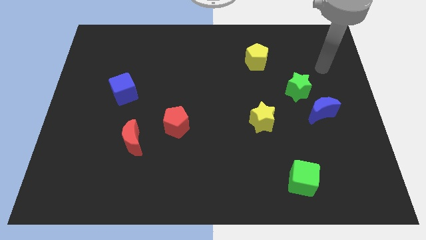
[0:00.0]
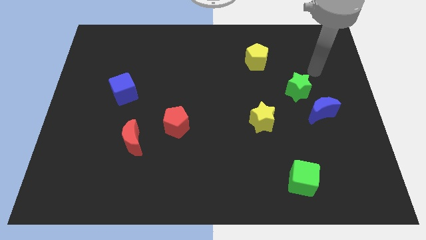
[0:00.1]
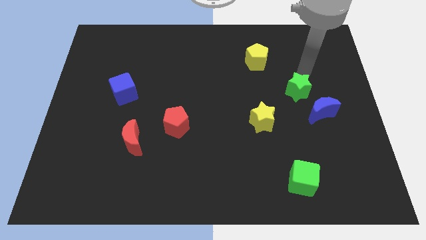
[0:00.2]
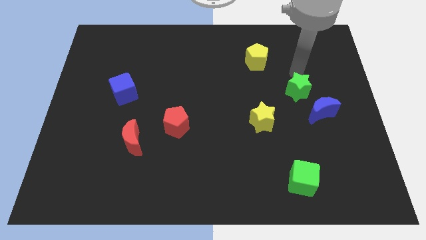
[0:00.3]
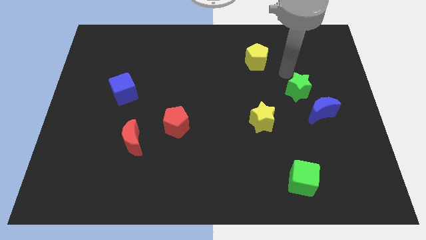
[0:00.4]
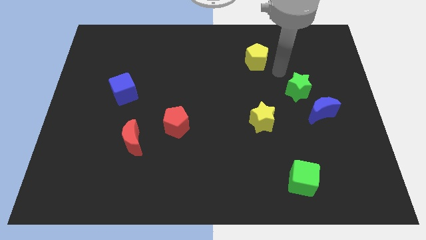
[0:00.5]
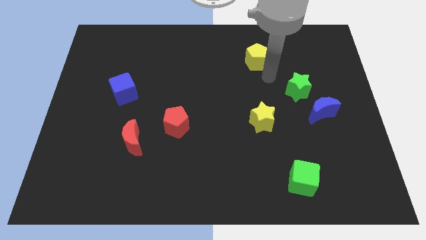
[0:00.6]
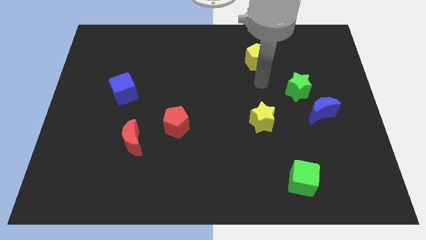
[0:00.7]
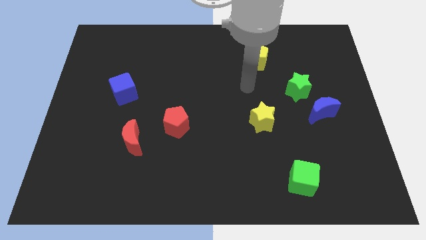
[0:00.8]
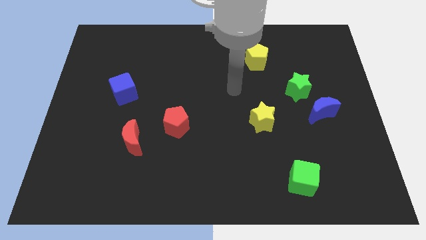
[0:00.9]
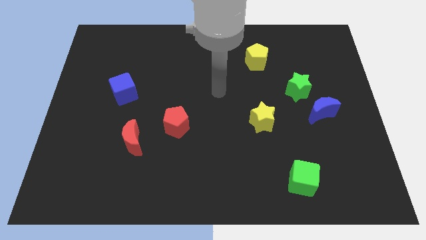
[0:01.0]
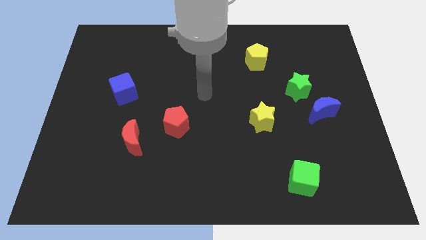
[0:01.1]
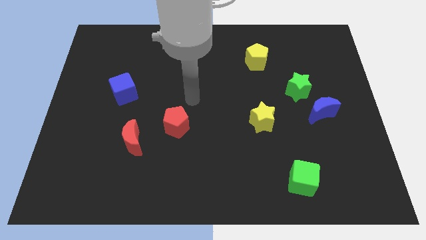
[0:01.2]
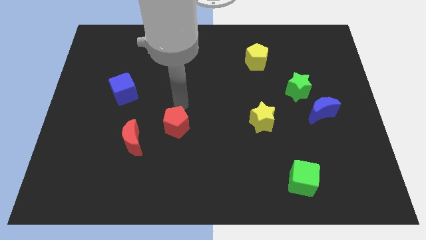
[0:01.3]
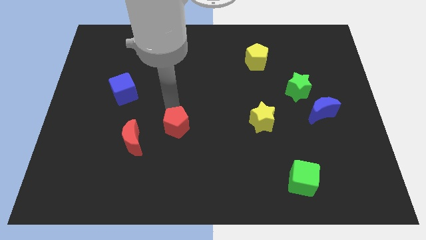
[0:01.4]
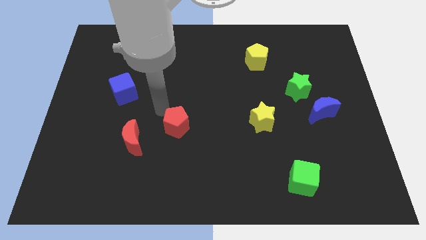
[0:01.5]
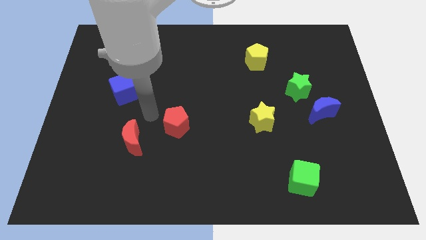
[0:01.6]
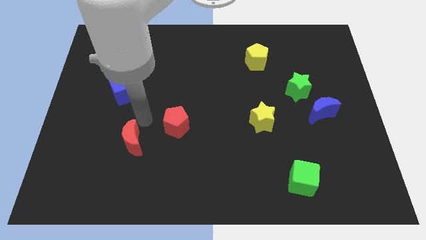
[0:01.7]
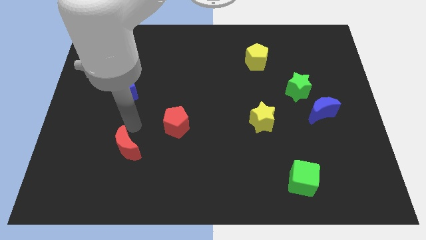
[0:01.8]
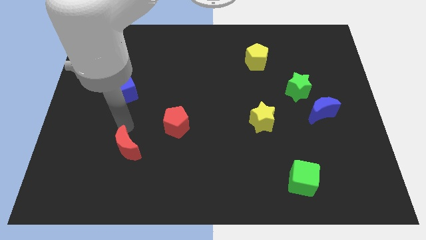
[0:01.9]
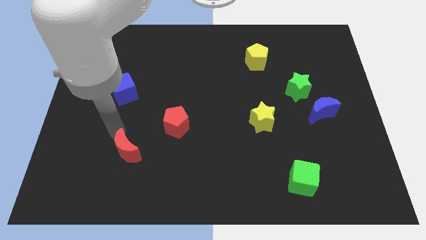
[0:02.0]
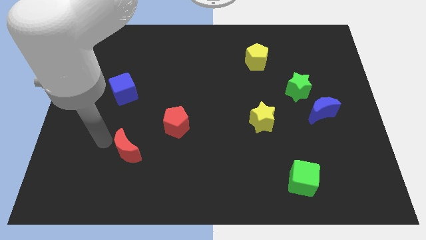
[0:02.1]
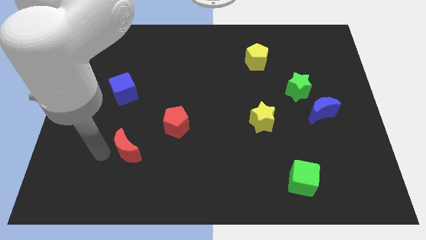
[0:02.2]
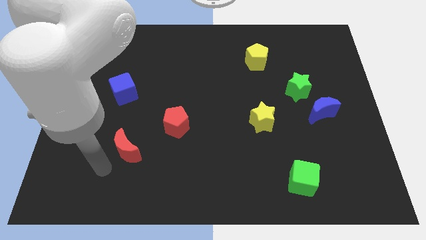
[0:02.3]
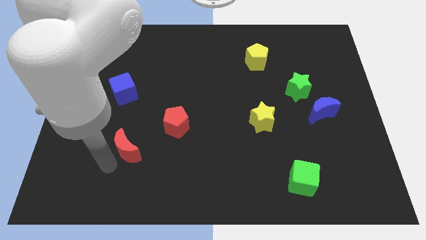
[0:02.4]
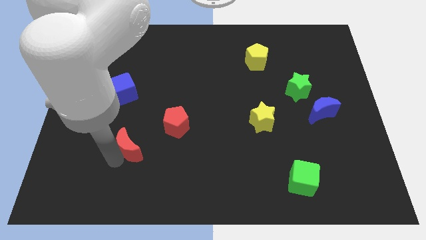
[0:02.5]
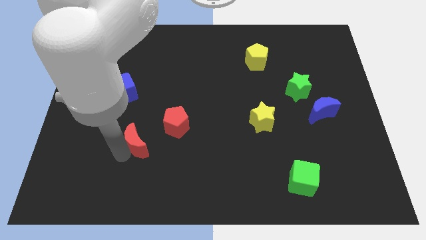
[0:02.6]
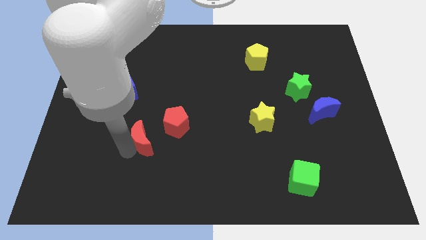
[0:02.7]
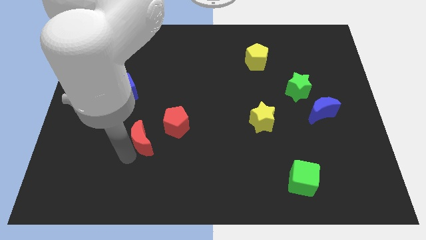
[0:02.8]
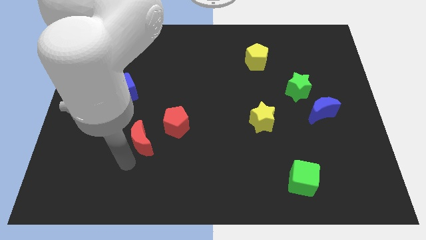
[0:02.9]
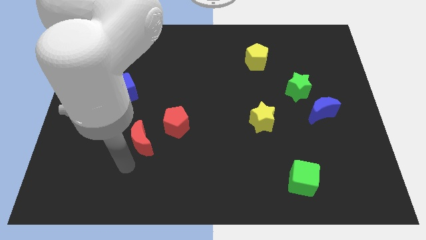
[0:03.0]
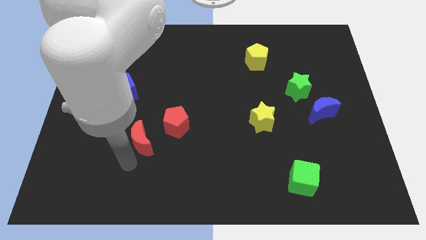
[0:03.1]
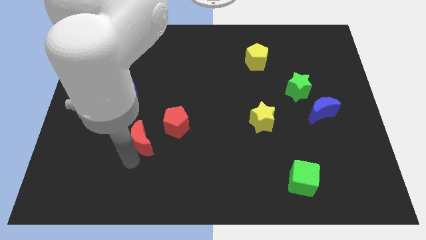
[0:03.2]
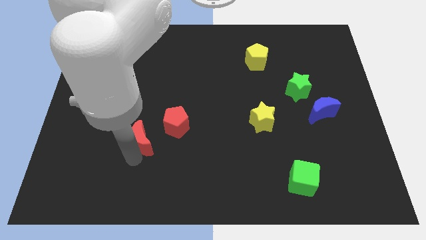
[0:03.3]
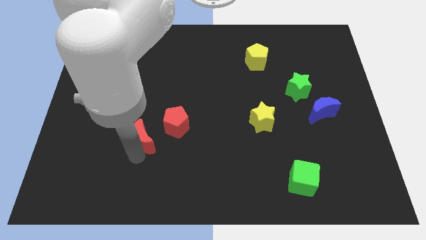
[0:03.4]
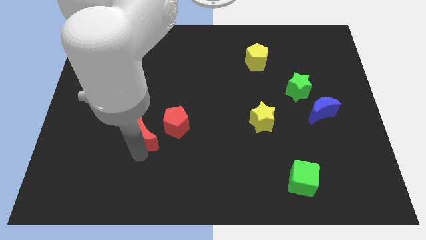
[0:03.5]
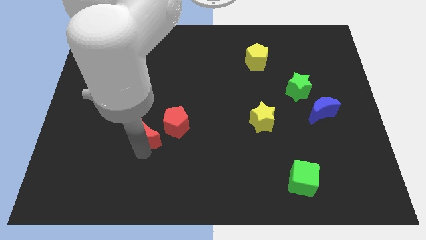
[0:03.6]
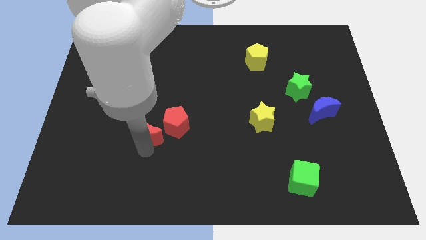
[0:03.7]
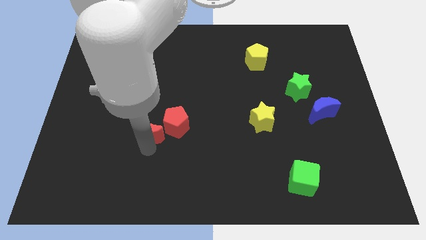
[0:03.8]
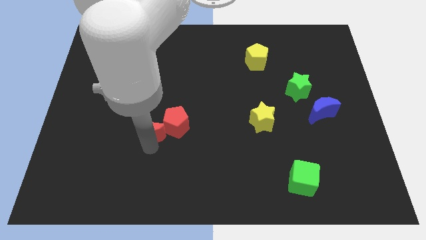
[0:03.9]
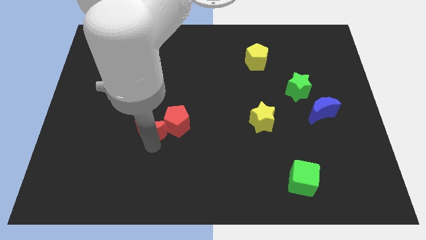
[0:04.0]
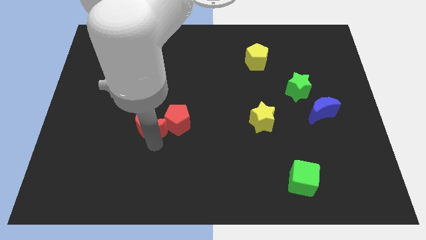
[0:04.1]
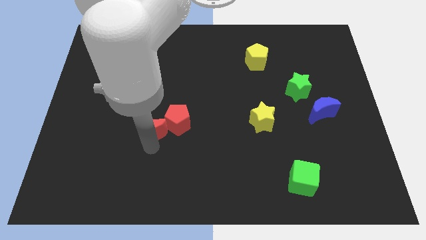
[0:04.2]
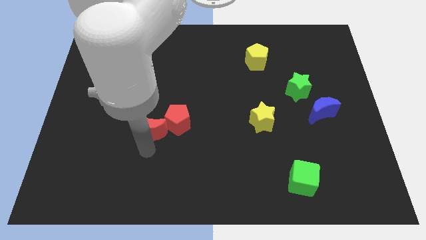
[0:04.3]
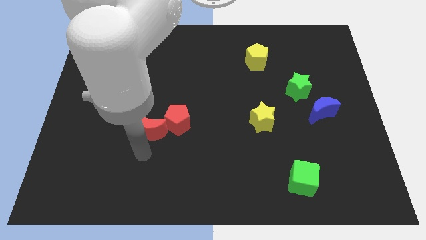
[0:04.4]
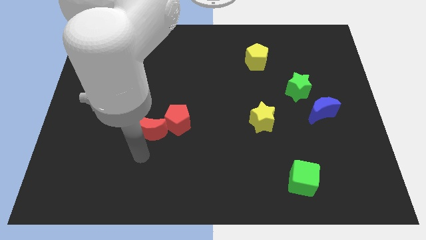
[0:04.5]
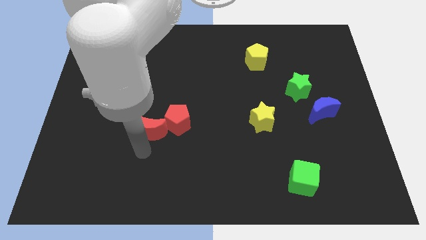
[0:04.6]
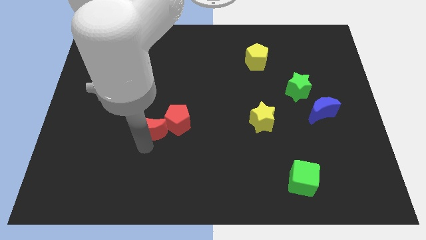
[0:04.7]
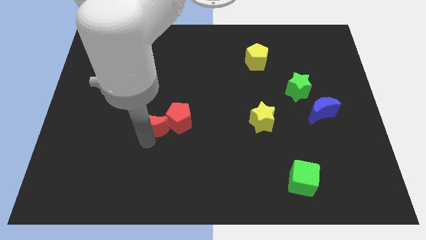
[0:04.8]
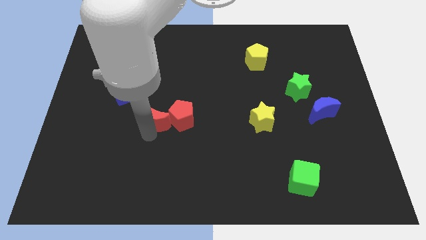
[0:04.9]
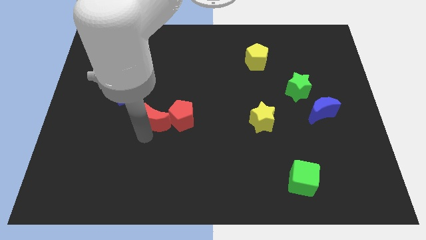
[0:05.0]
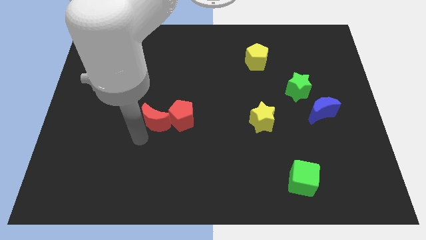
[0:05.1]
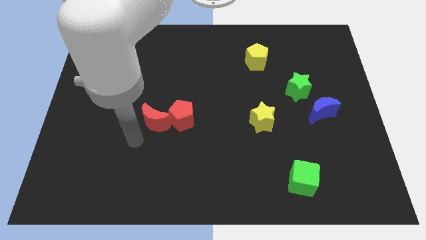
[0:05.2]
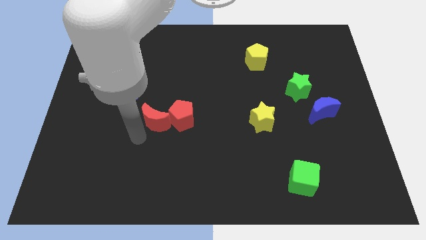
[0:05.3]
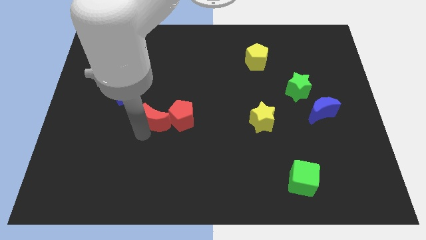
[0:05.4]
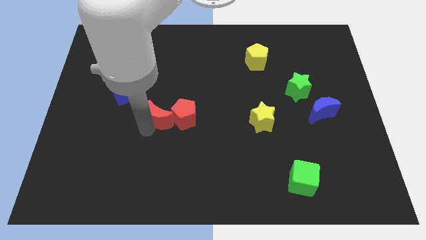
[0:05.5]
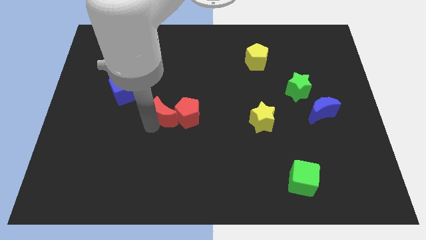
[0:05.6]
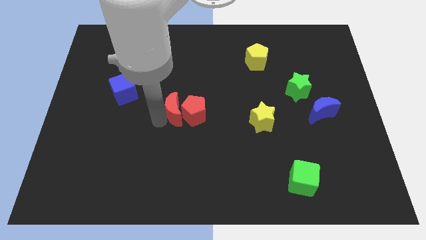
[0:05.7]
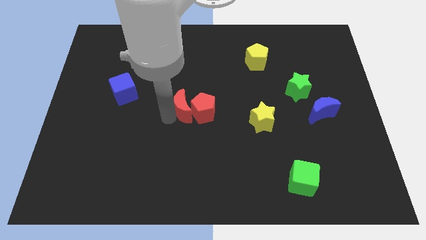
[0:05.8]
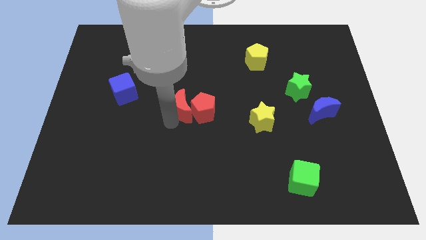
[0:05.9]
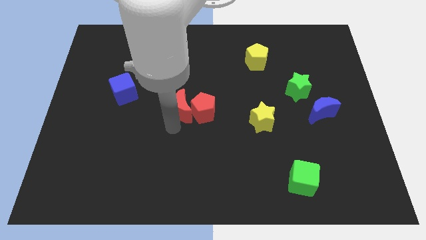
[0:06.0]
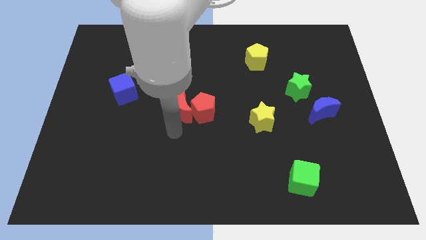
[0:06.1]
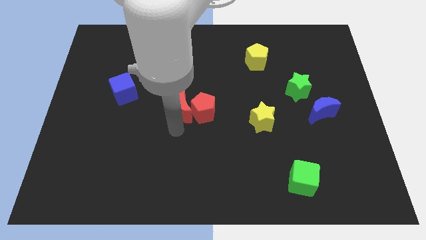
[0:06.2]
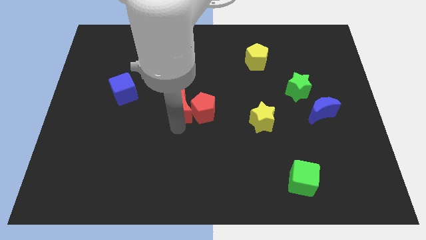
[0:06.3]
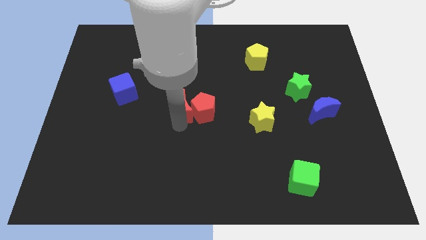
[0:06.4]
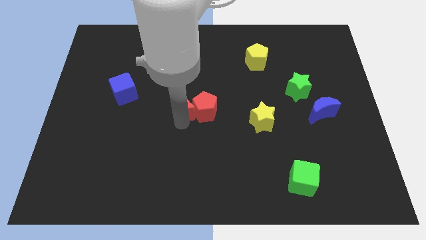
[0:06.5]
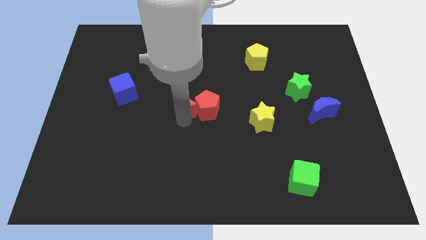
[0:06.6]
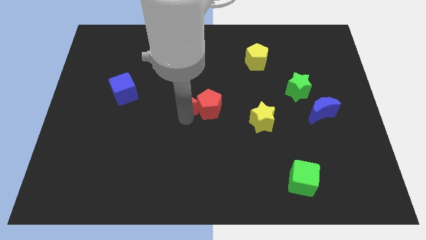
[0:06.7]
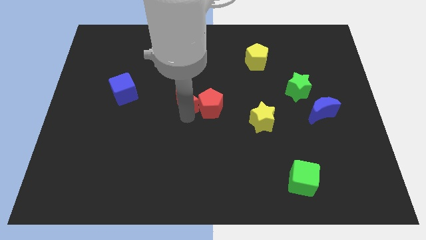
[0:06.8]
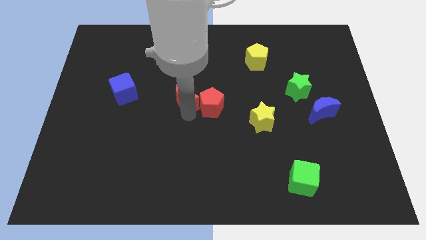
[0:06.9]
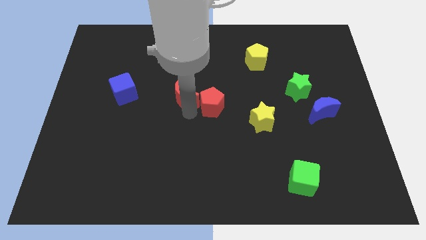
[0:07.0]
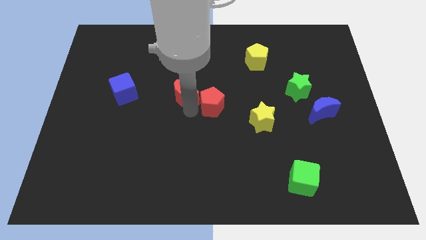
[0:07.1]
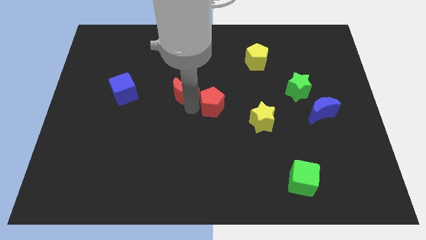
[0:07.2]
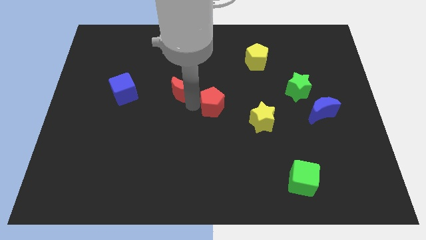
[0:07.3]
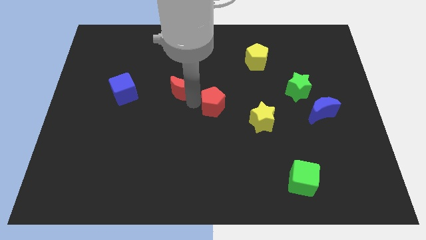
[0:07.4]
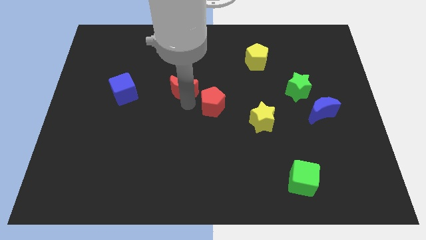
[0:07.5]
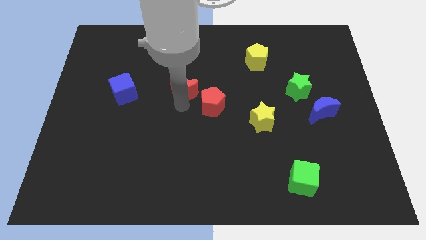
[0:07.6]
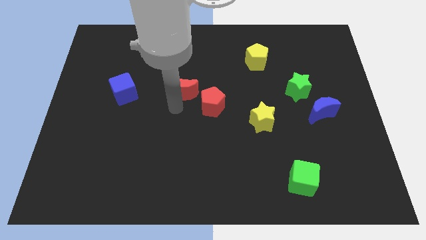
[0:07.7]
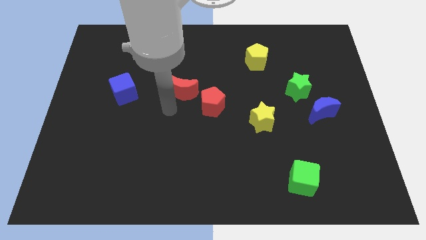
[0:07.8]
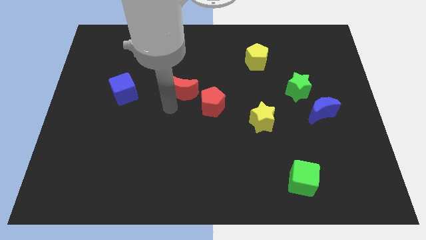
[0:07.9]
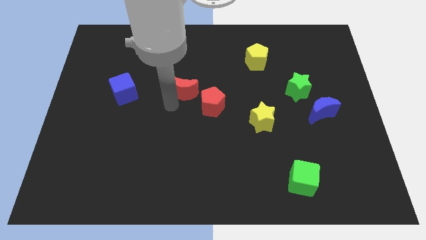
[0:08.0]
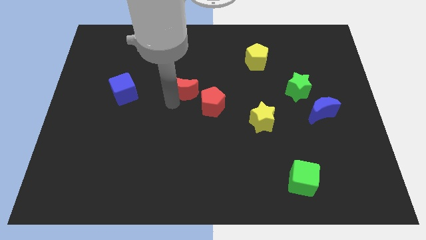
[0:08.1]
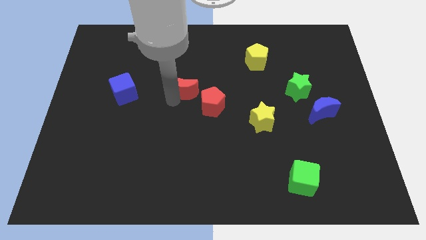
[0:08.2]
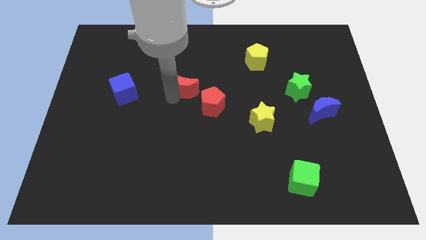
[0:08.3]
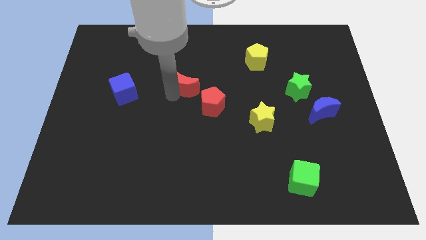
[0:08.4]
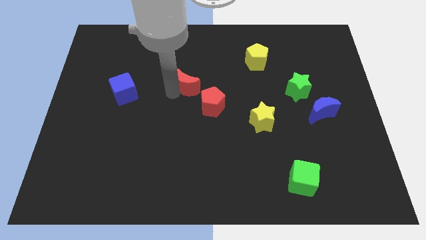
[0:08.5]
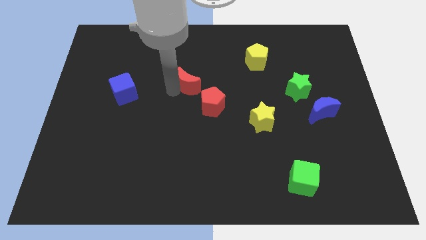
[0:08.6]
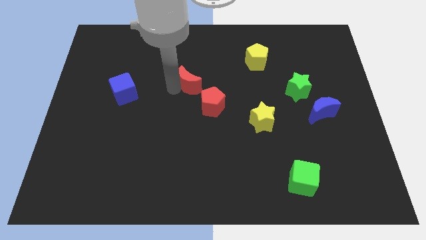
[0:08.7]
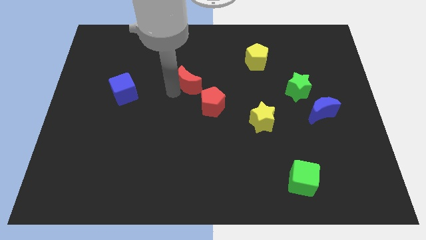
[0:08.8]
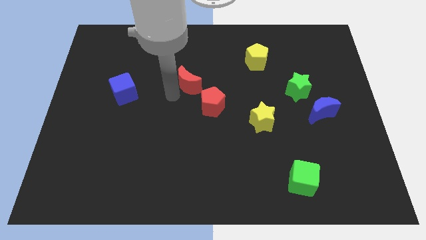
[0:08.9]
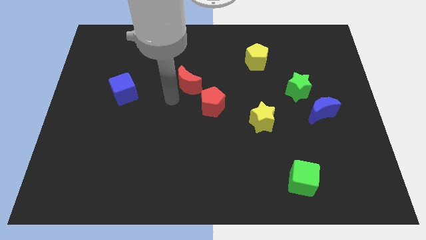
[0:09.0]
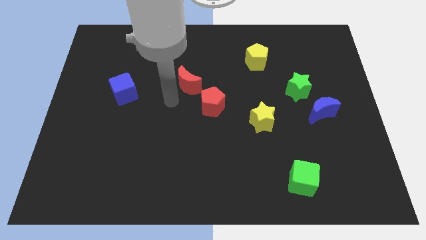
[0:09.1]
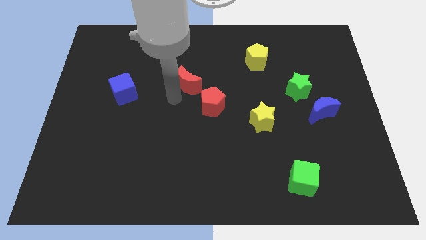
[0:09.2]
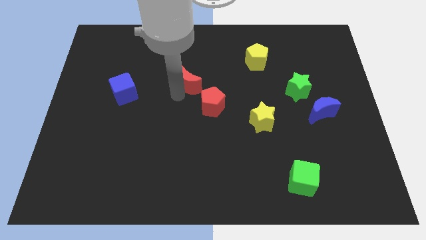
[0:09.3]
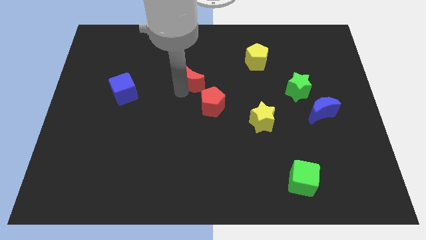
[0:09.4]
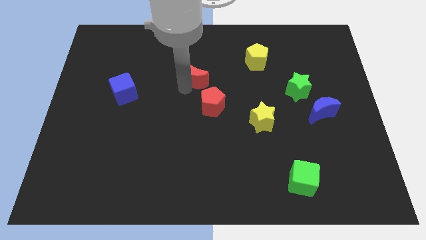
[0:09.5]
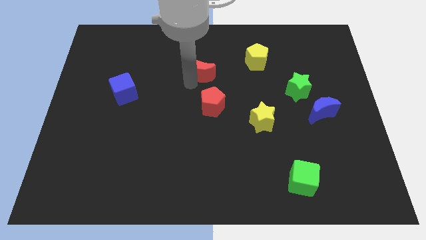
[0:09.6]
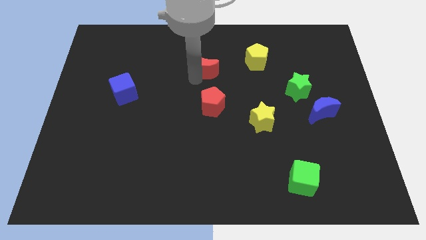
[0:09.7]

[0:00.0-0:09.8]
put the red moon to the left side of the yellow pentagon
